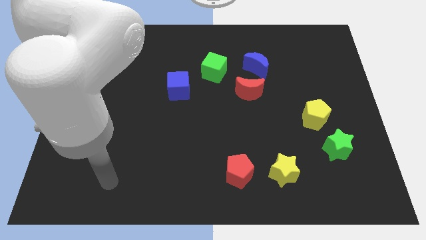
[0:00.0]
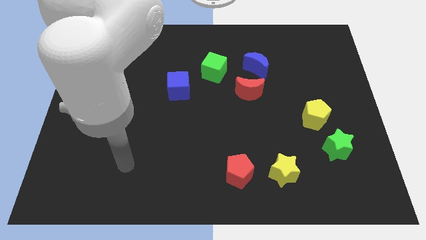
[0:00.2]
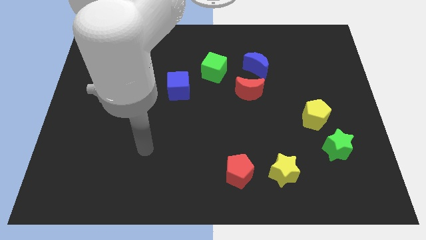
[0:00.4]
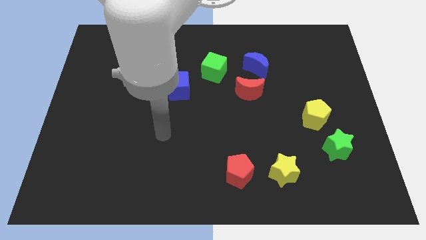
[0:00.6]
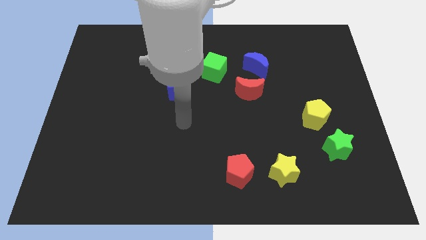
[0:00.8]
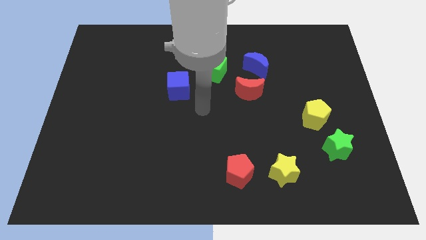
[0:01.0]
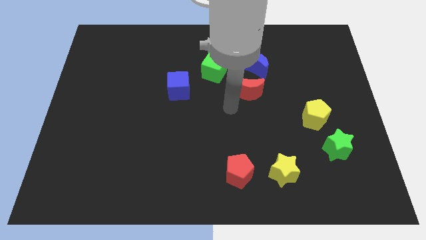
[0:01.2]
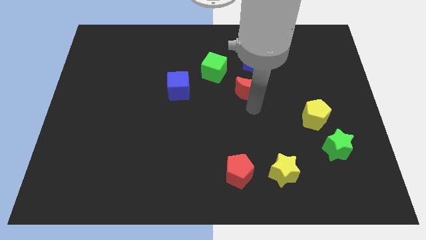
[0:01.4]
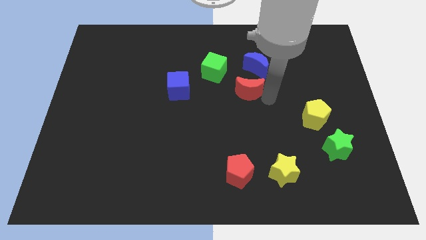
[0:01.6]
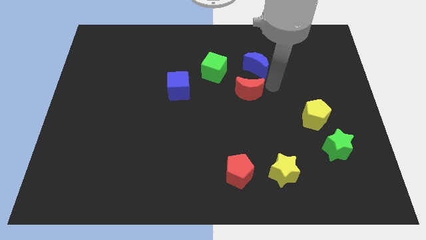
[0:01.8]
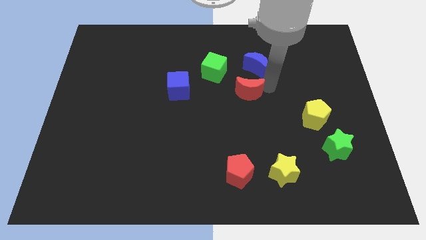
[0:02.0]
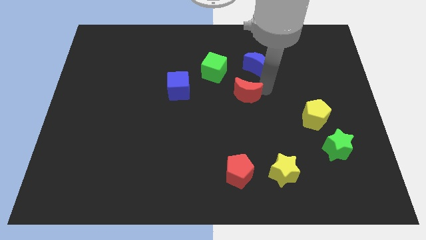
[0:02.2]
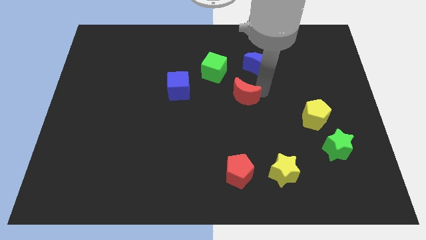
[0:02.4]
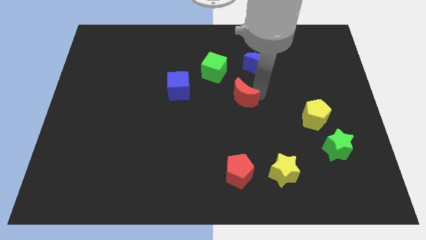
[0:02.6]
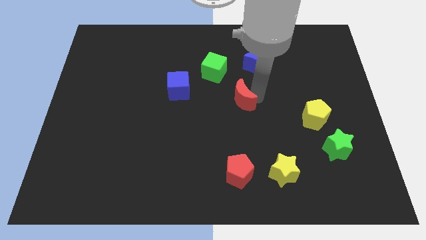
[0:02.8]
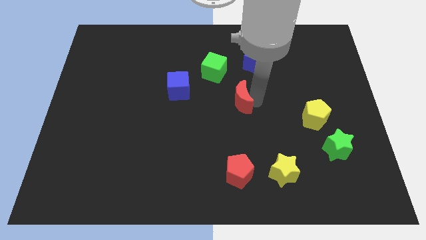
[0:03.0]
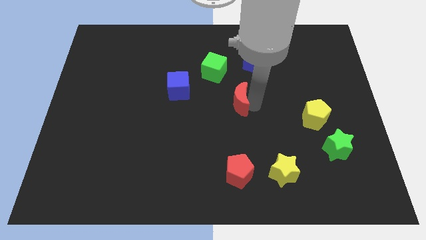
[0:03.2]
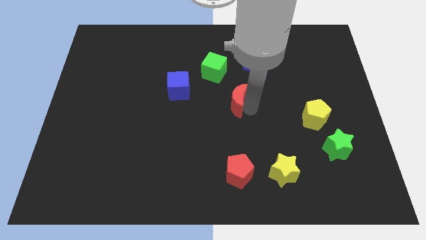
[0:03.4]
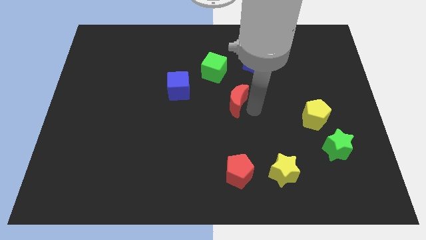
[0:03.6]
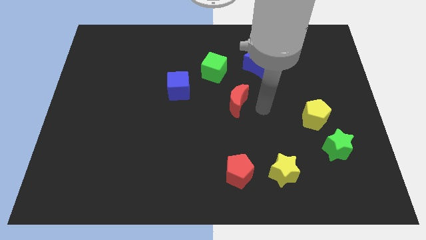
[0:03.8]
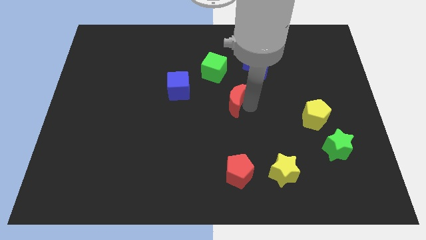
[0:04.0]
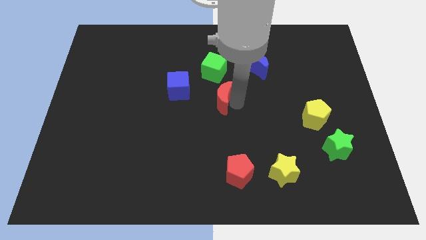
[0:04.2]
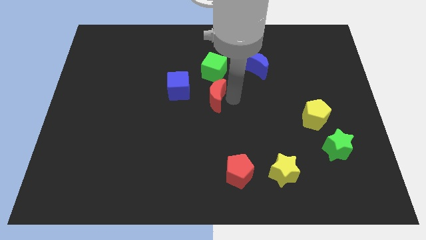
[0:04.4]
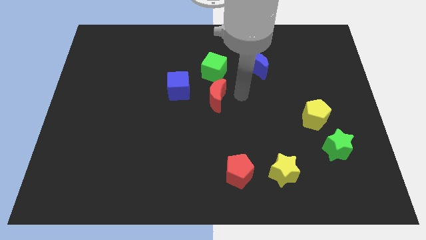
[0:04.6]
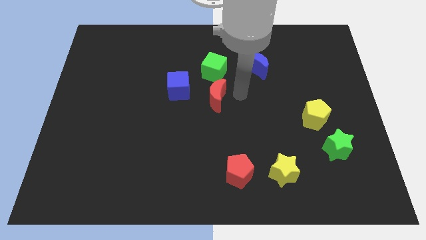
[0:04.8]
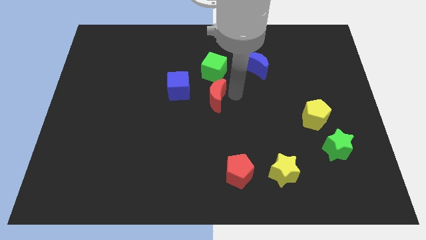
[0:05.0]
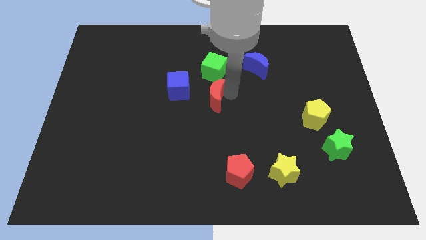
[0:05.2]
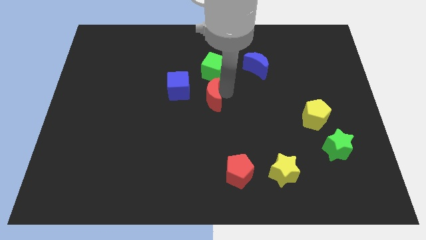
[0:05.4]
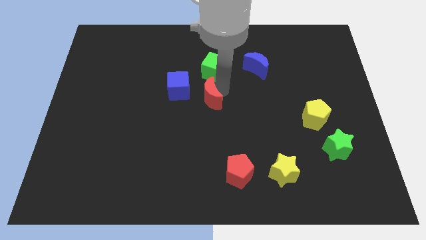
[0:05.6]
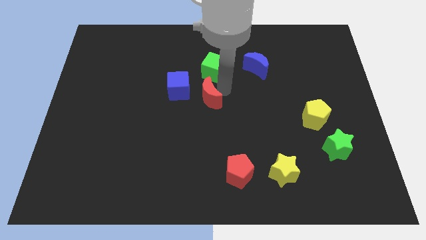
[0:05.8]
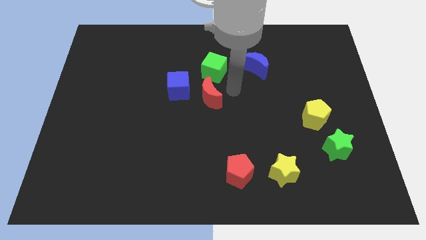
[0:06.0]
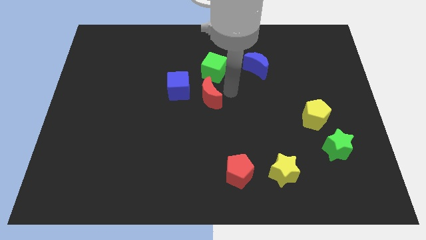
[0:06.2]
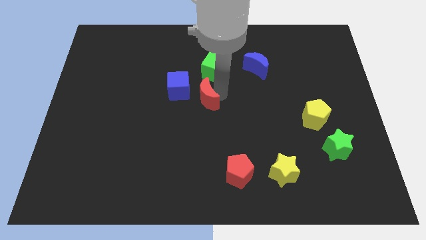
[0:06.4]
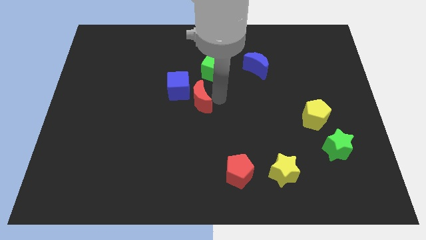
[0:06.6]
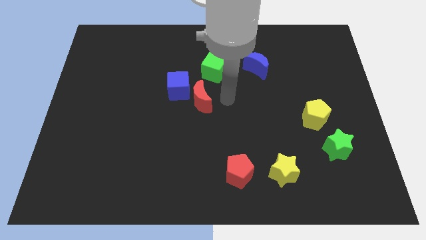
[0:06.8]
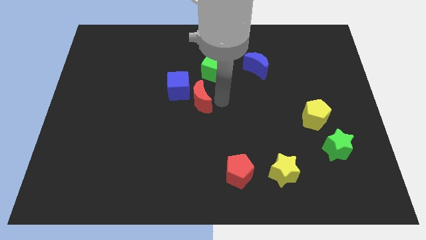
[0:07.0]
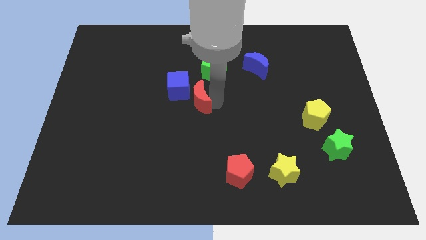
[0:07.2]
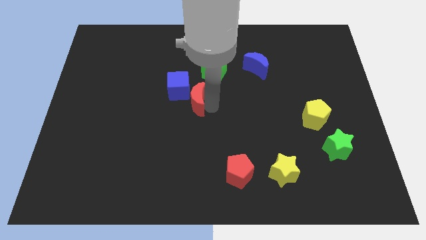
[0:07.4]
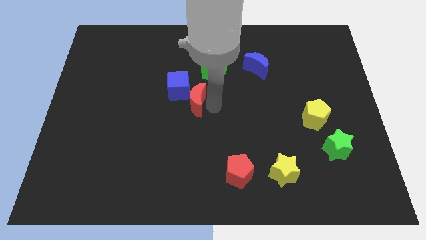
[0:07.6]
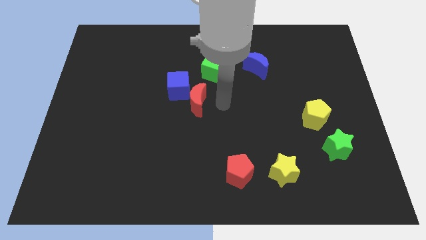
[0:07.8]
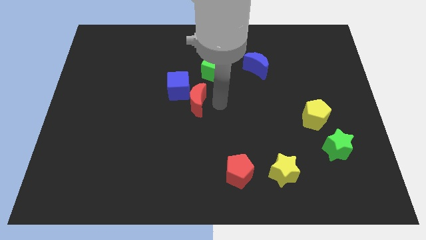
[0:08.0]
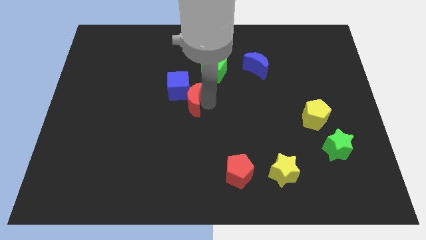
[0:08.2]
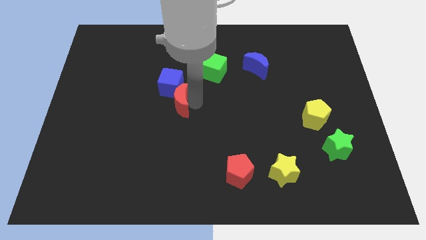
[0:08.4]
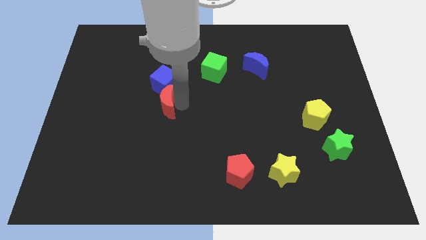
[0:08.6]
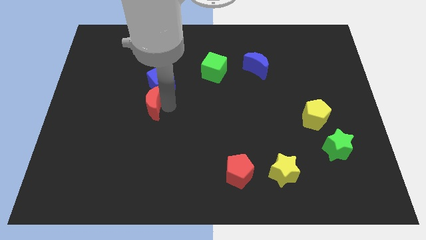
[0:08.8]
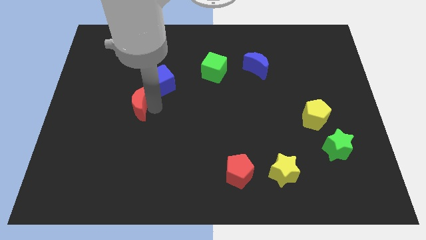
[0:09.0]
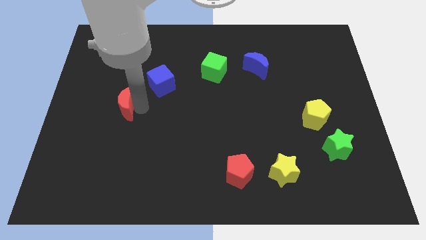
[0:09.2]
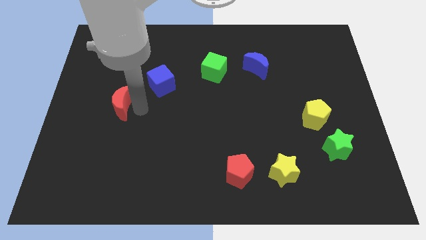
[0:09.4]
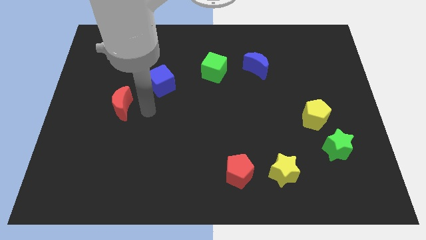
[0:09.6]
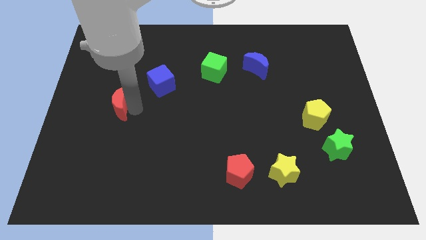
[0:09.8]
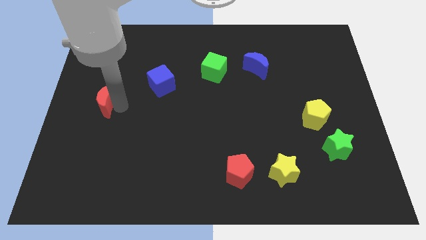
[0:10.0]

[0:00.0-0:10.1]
push the red moon to the left side of the board

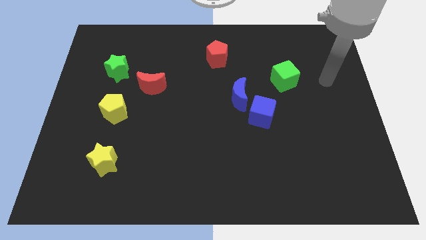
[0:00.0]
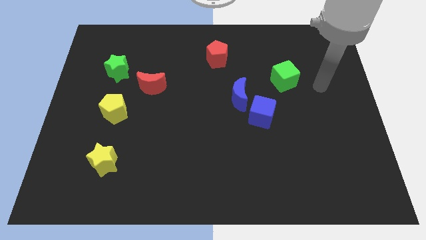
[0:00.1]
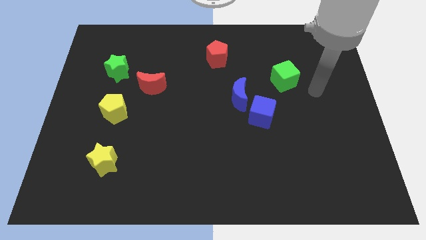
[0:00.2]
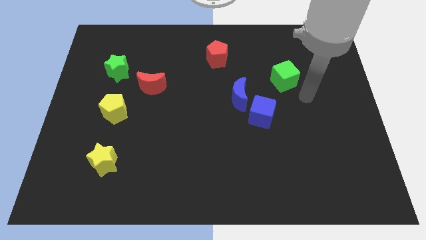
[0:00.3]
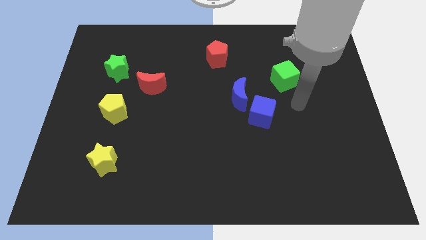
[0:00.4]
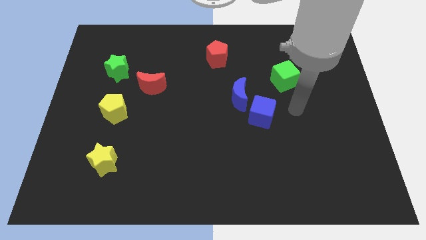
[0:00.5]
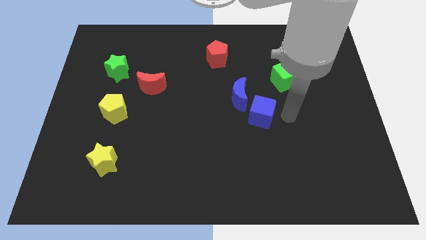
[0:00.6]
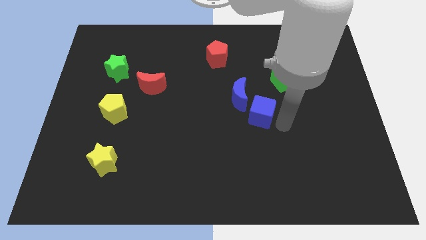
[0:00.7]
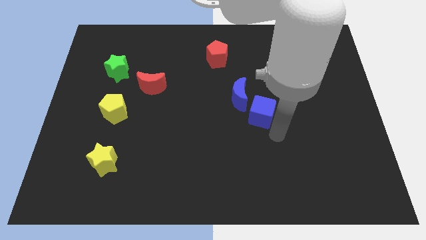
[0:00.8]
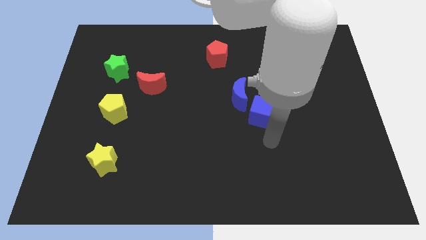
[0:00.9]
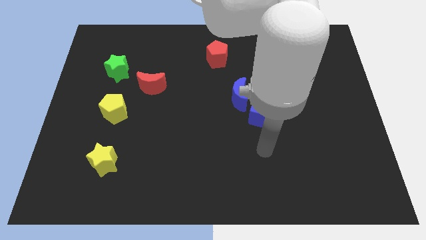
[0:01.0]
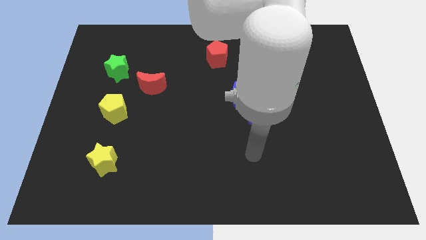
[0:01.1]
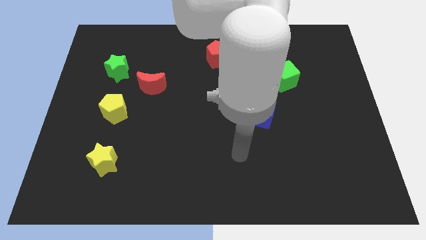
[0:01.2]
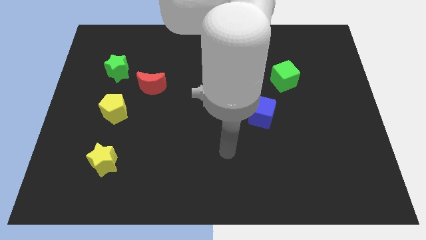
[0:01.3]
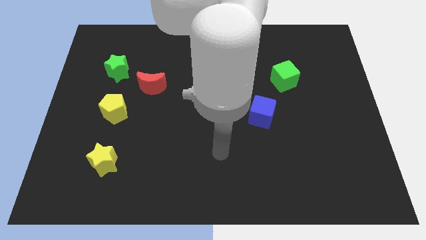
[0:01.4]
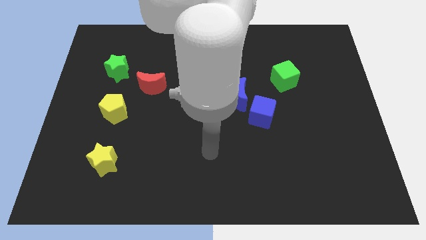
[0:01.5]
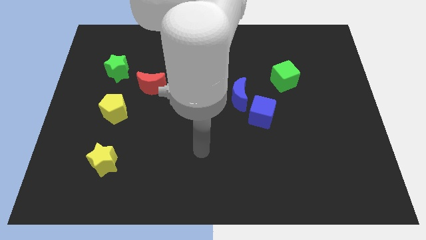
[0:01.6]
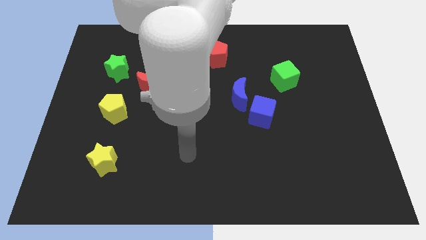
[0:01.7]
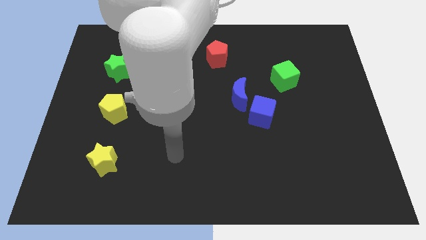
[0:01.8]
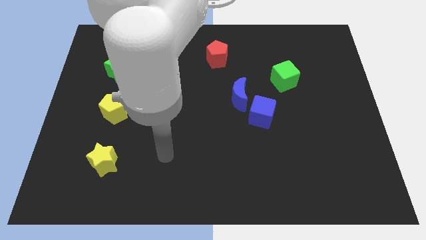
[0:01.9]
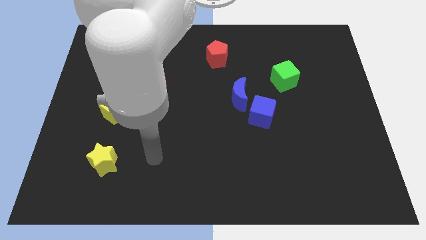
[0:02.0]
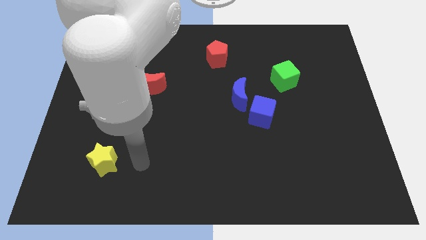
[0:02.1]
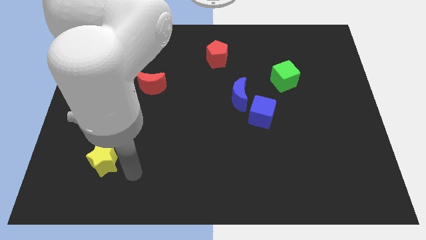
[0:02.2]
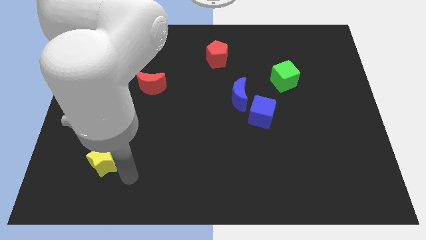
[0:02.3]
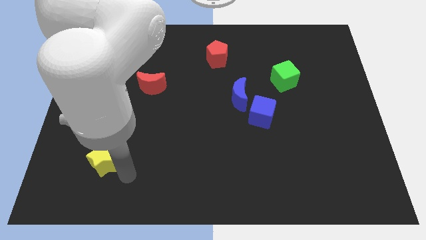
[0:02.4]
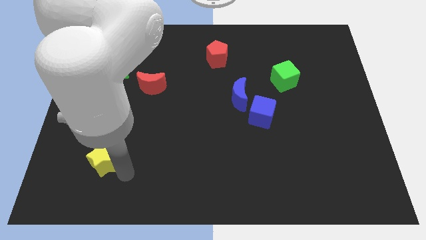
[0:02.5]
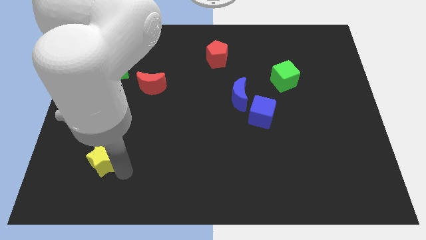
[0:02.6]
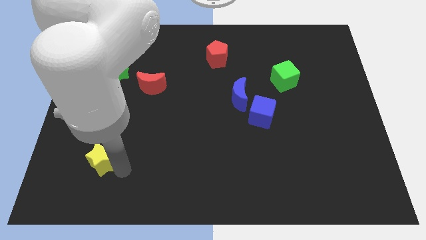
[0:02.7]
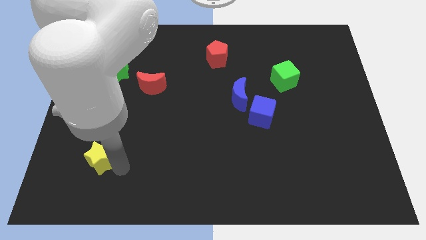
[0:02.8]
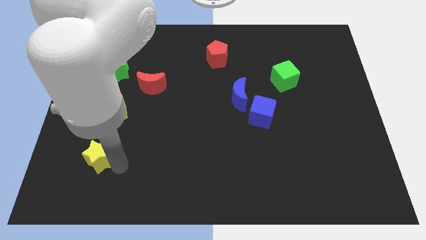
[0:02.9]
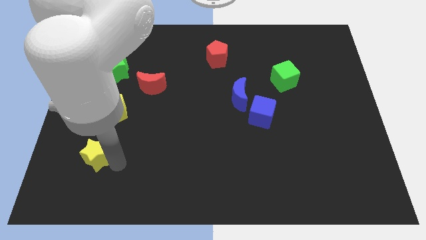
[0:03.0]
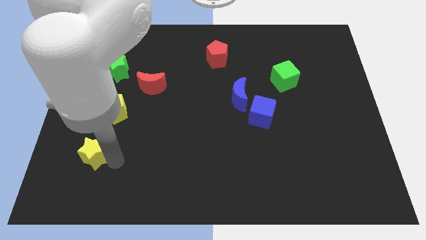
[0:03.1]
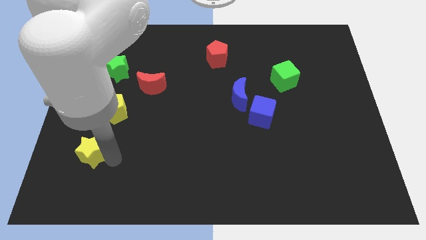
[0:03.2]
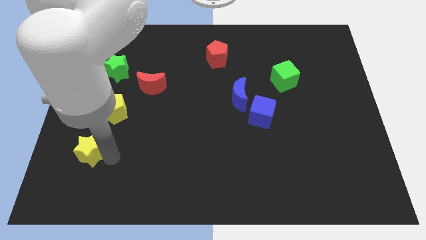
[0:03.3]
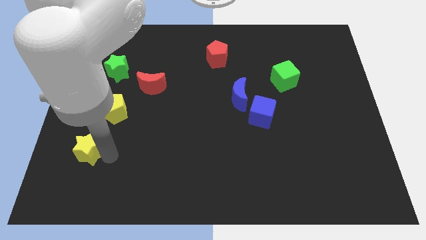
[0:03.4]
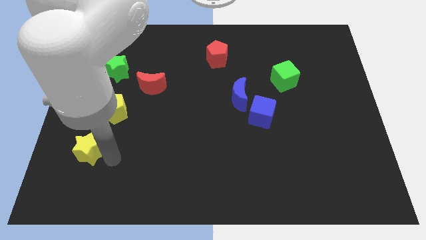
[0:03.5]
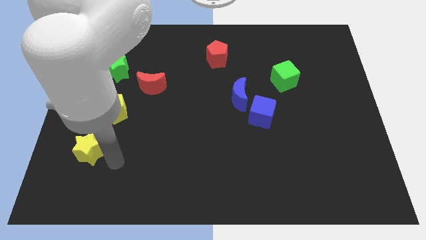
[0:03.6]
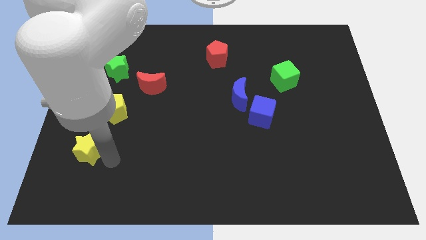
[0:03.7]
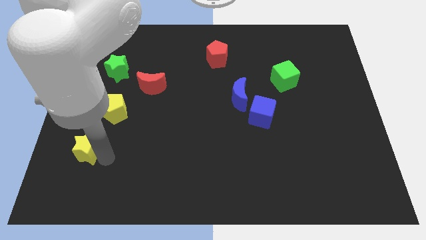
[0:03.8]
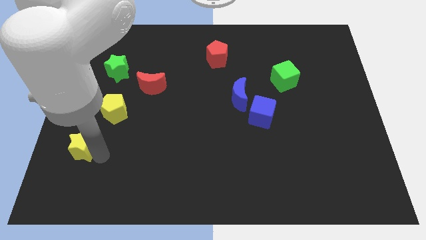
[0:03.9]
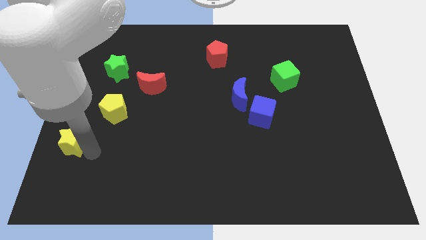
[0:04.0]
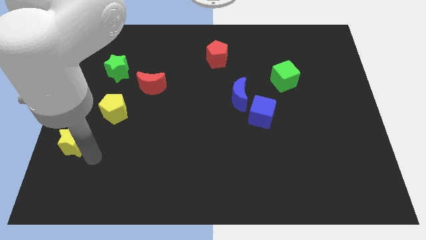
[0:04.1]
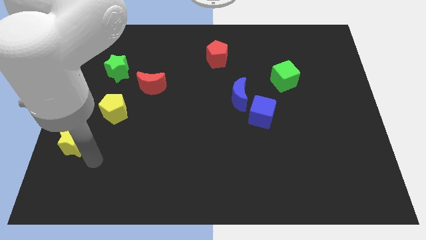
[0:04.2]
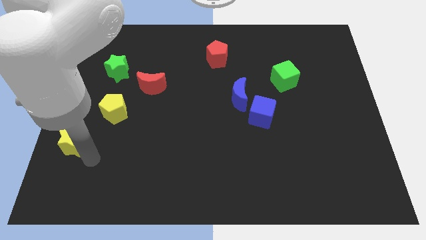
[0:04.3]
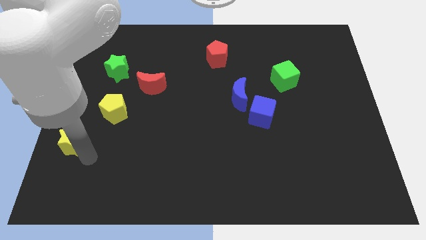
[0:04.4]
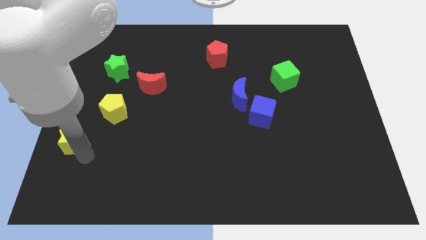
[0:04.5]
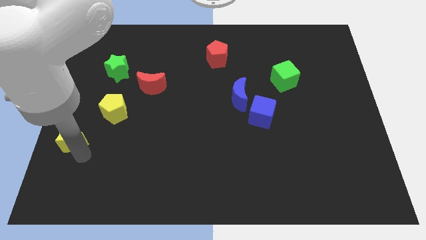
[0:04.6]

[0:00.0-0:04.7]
move the yellow star to the left side of the board
